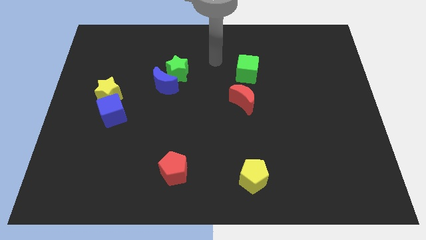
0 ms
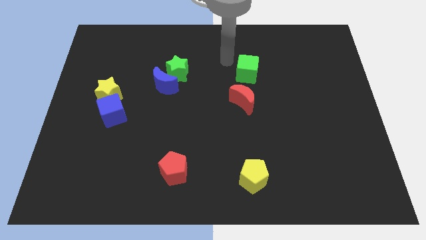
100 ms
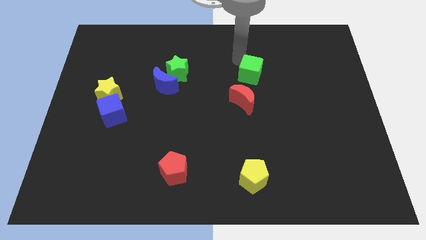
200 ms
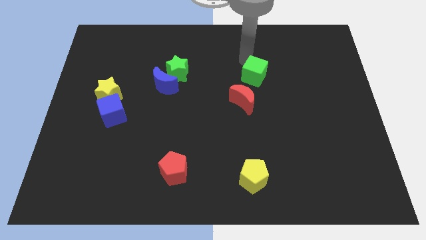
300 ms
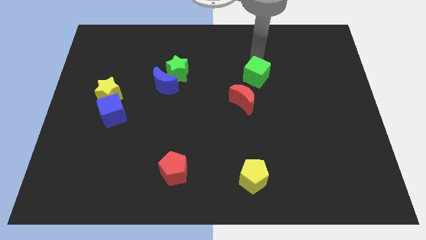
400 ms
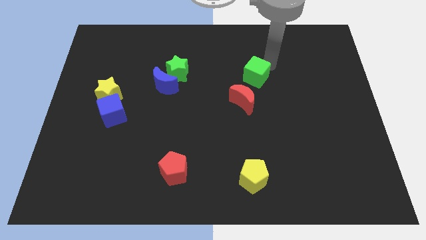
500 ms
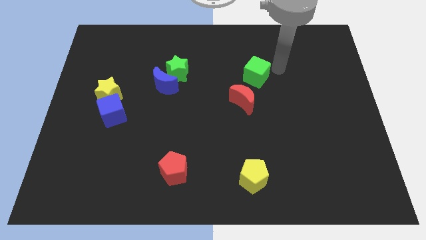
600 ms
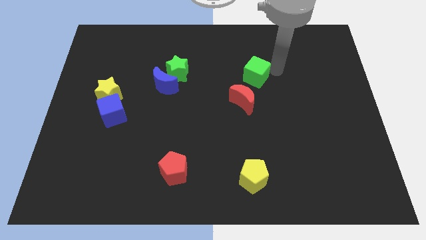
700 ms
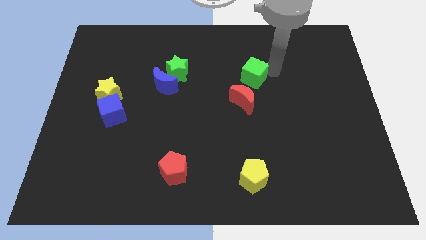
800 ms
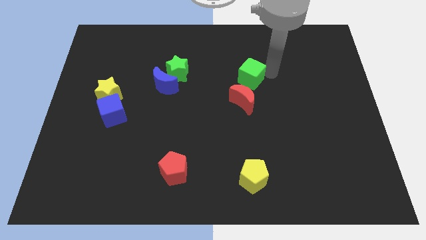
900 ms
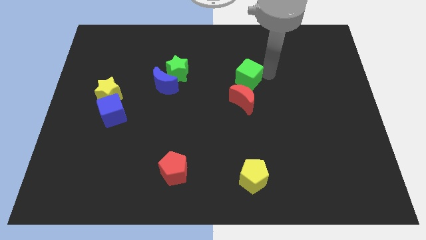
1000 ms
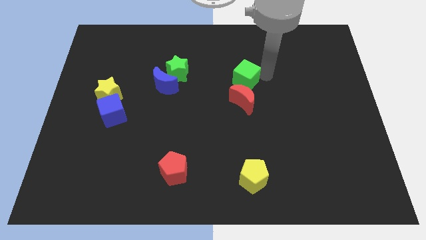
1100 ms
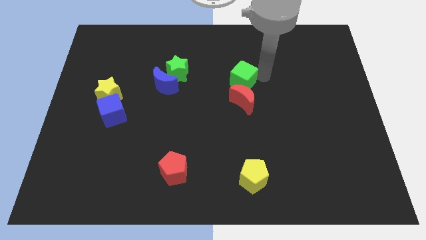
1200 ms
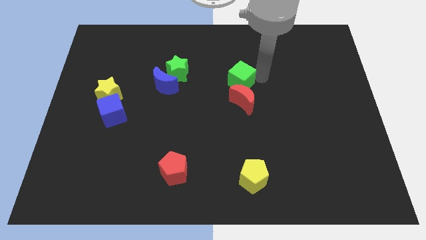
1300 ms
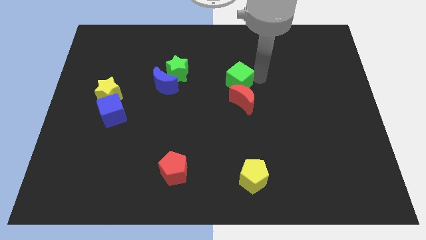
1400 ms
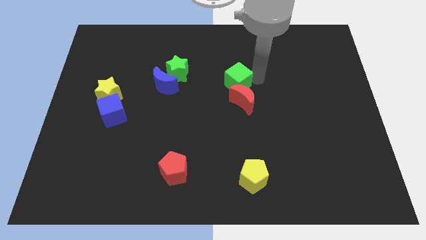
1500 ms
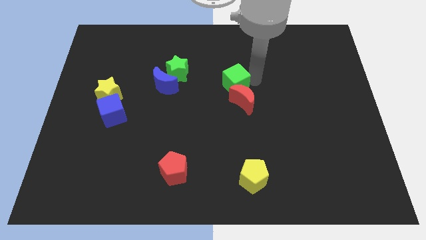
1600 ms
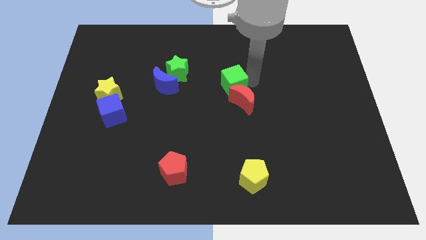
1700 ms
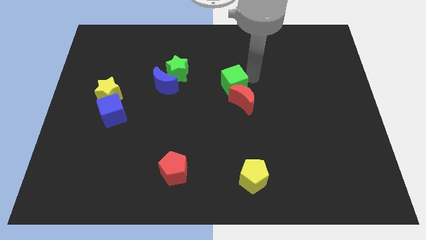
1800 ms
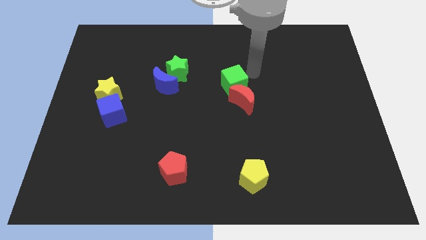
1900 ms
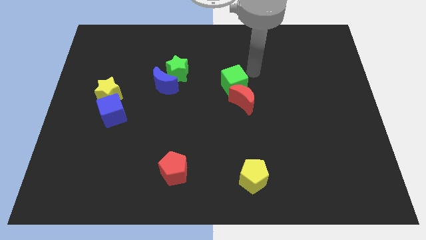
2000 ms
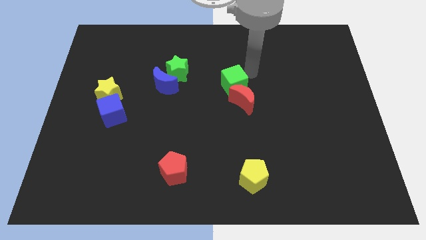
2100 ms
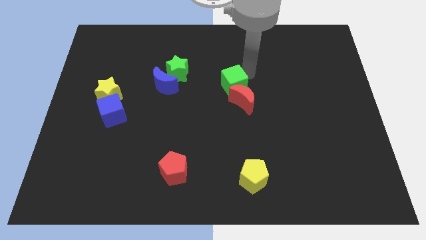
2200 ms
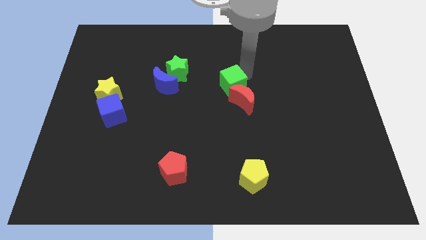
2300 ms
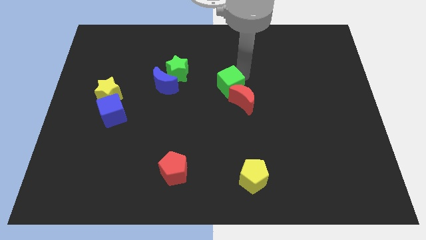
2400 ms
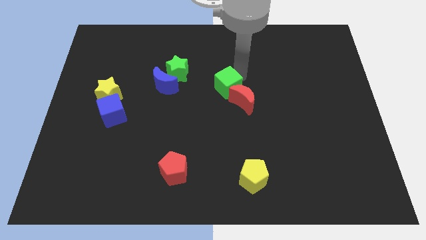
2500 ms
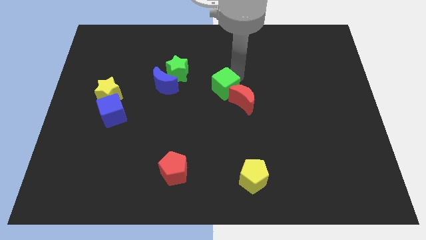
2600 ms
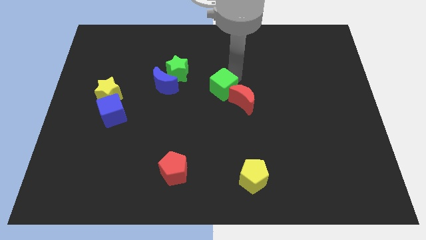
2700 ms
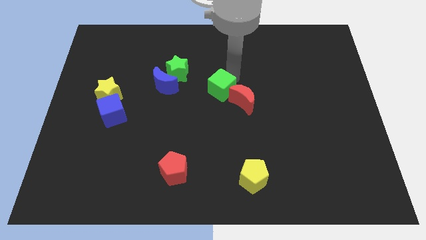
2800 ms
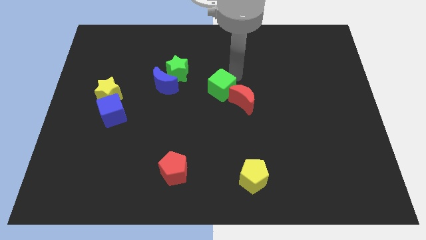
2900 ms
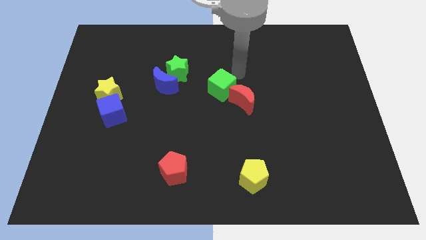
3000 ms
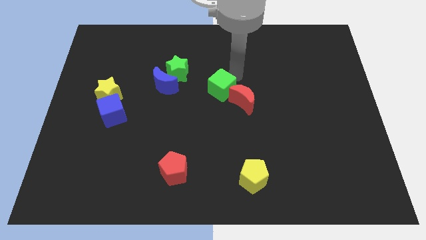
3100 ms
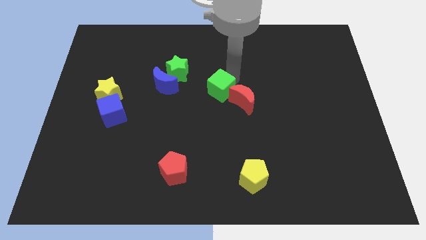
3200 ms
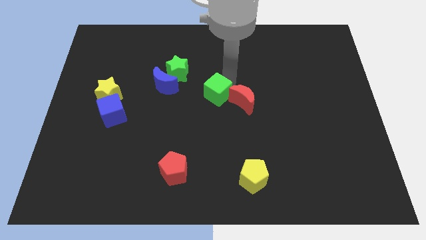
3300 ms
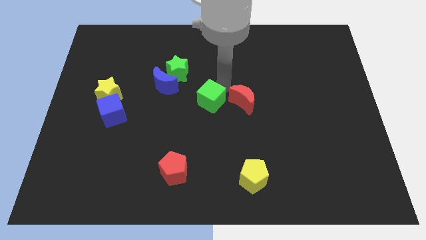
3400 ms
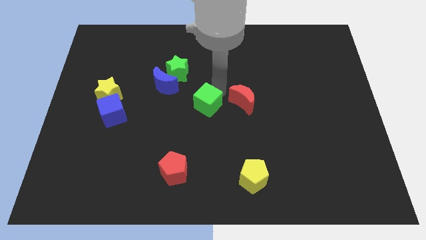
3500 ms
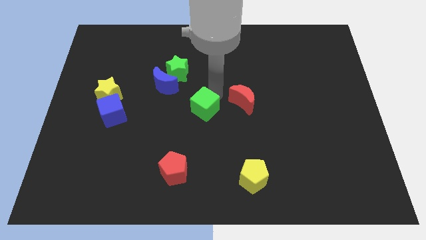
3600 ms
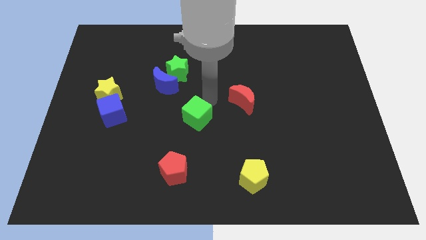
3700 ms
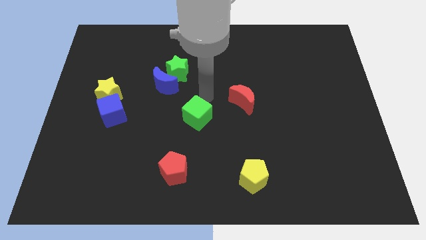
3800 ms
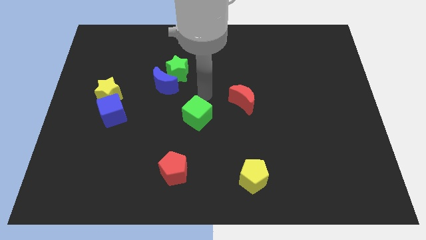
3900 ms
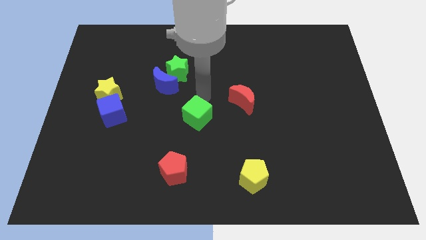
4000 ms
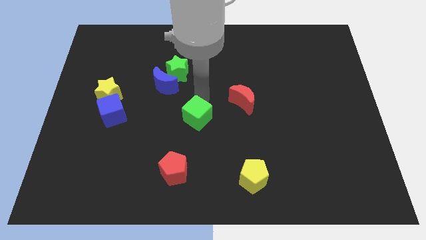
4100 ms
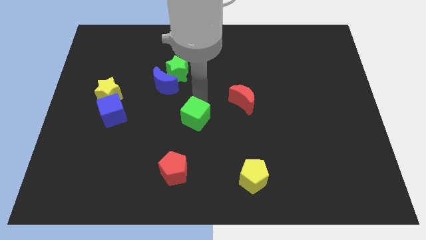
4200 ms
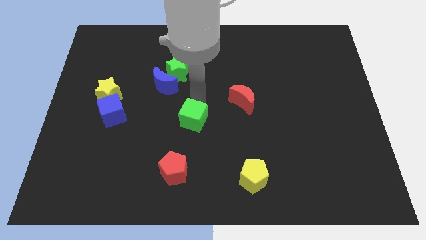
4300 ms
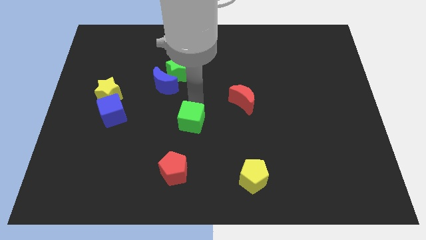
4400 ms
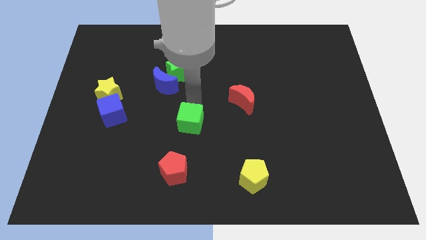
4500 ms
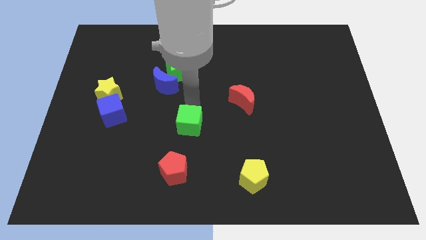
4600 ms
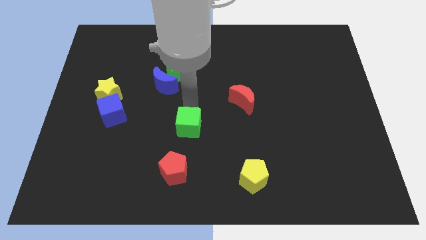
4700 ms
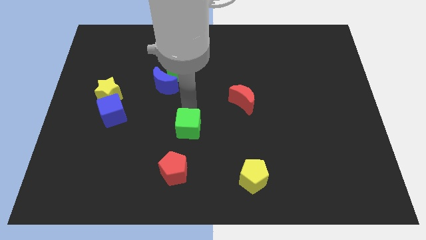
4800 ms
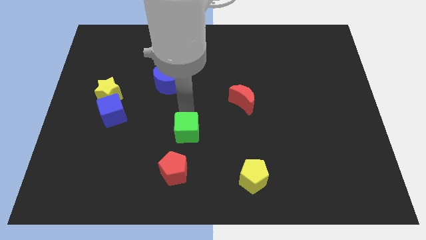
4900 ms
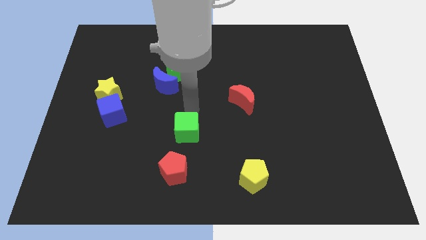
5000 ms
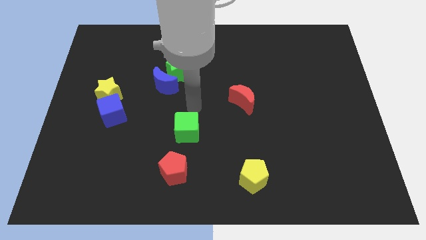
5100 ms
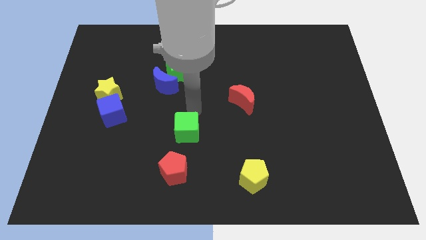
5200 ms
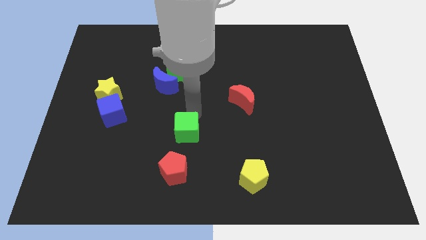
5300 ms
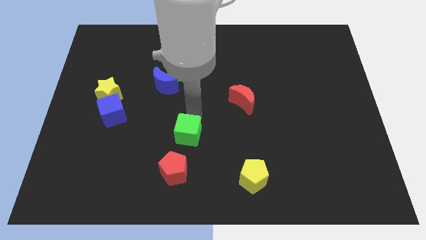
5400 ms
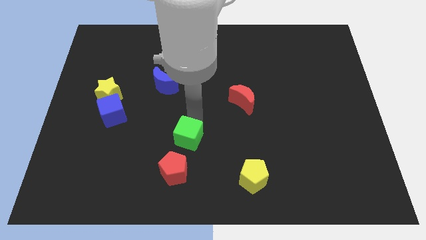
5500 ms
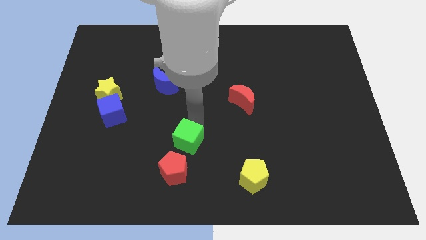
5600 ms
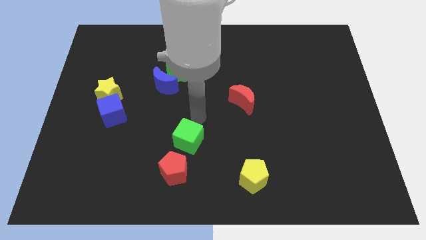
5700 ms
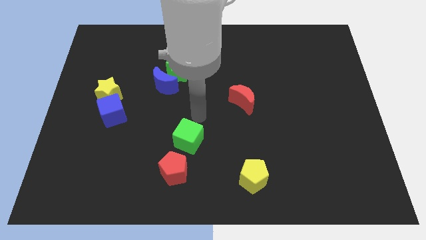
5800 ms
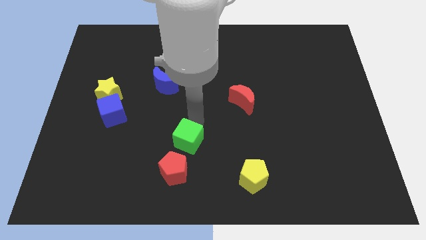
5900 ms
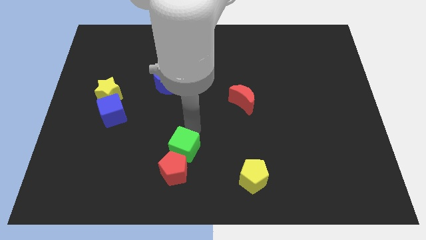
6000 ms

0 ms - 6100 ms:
put the green cube next to the red pentagon

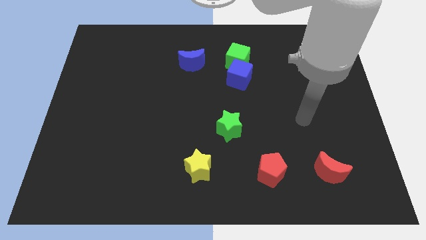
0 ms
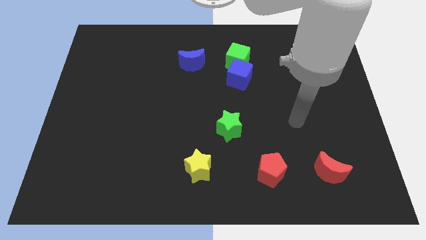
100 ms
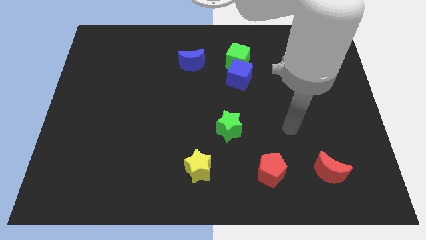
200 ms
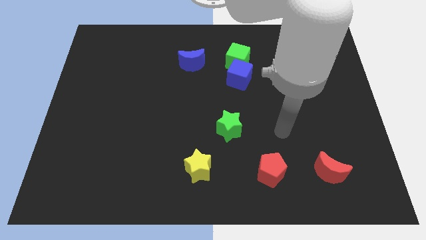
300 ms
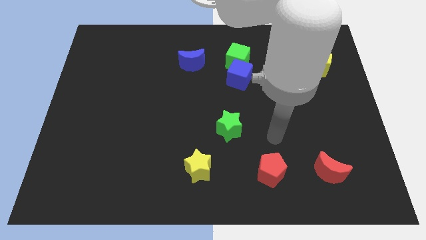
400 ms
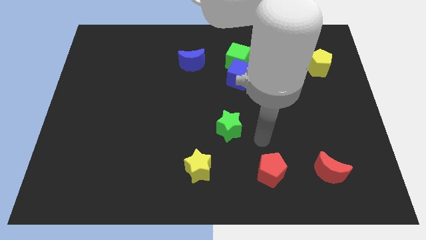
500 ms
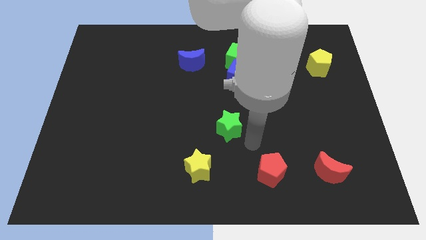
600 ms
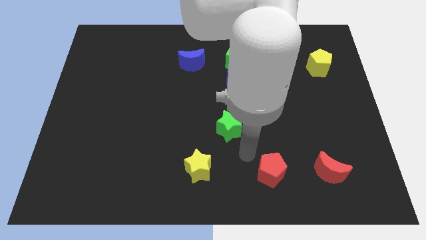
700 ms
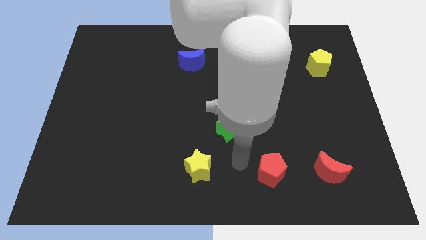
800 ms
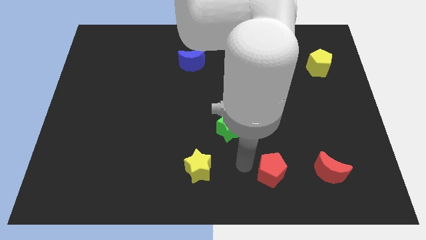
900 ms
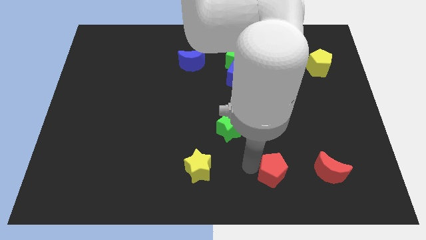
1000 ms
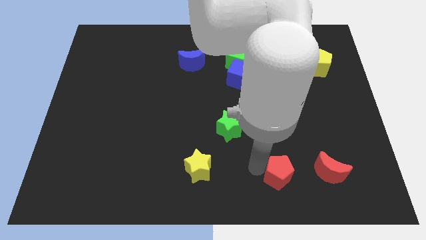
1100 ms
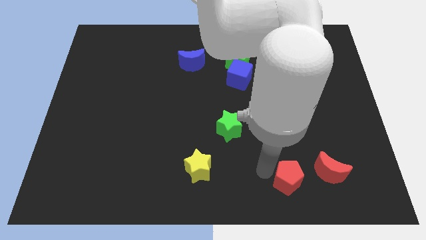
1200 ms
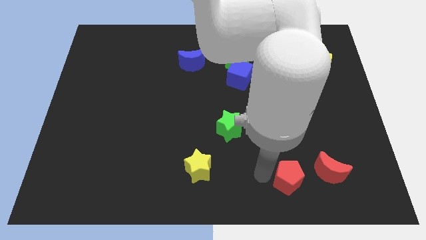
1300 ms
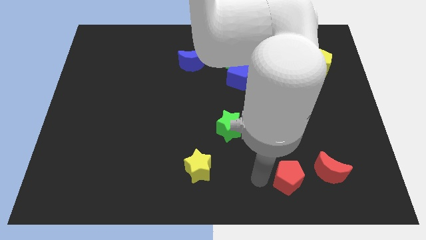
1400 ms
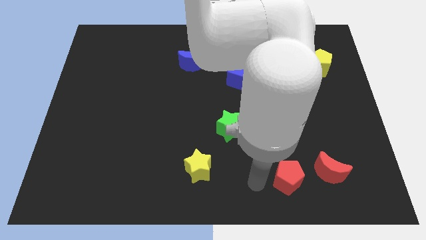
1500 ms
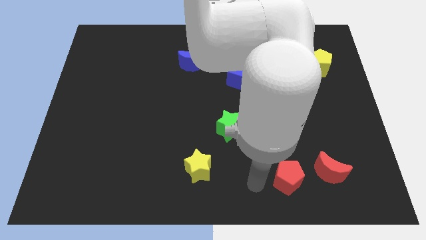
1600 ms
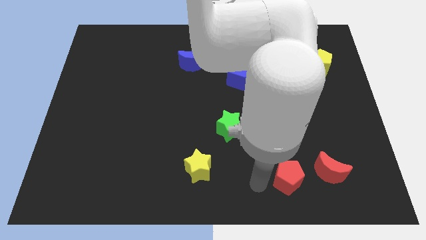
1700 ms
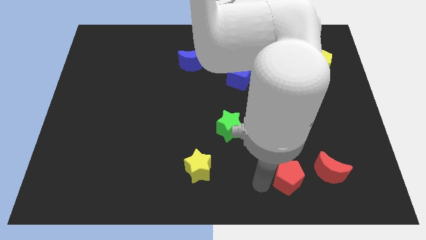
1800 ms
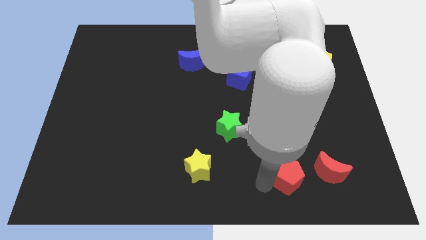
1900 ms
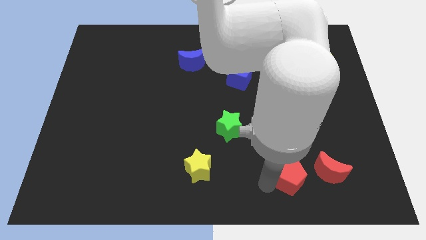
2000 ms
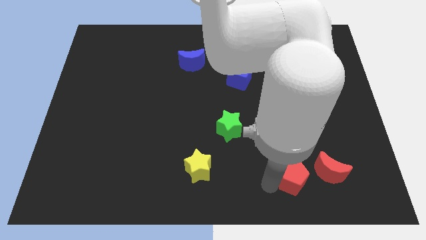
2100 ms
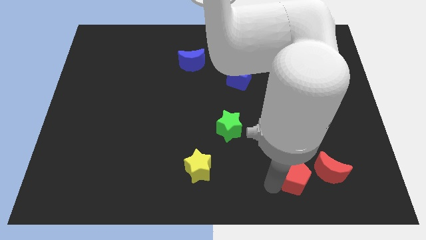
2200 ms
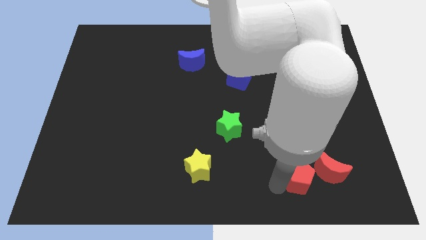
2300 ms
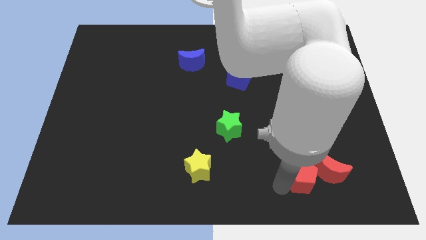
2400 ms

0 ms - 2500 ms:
slide the red pentagon towards the red moon
